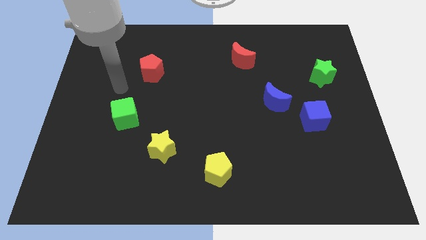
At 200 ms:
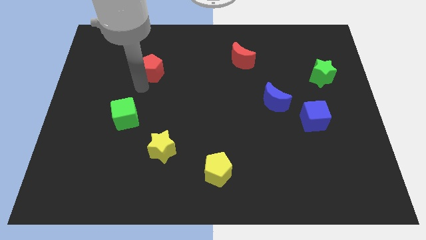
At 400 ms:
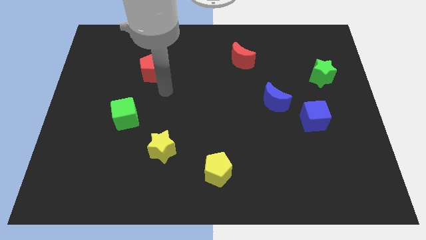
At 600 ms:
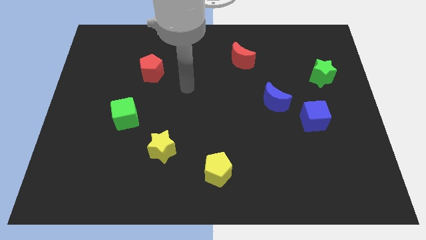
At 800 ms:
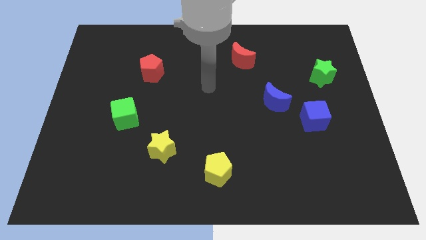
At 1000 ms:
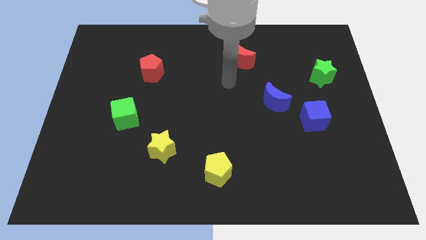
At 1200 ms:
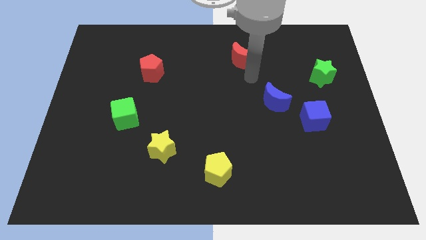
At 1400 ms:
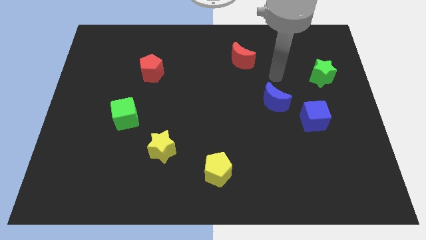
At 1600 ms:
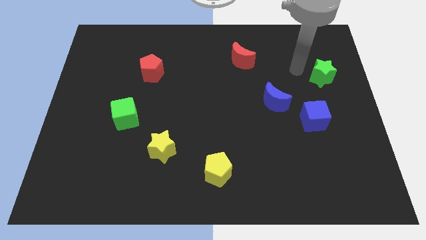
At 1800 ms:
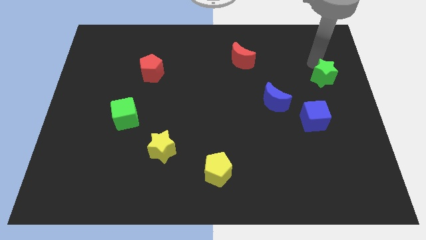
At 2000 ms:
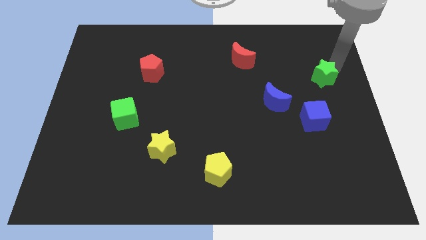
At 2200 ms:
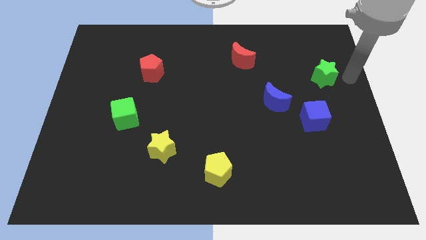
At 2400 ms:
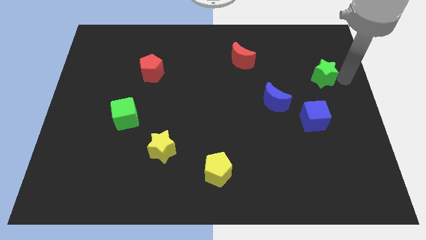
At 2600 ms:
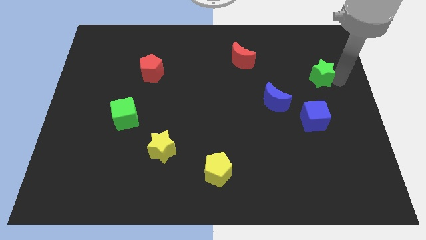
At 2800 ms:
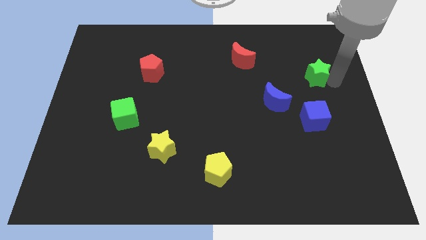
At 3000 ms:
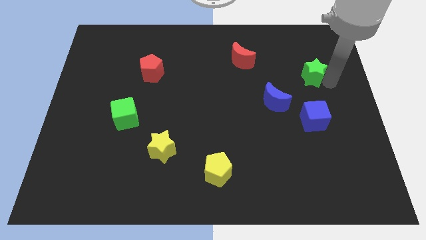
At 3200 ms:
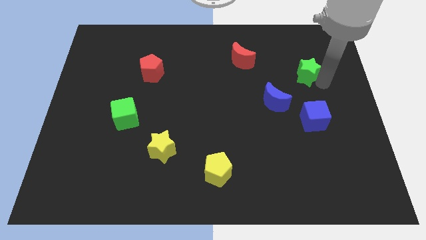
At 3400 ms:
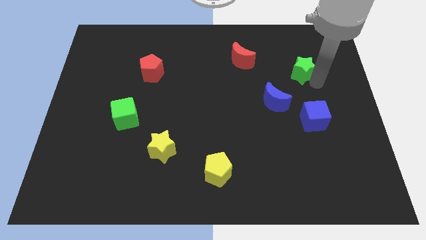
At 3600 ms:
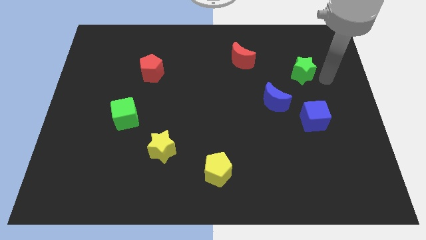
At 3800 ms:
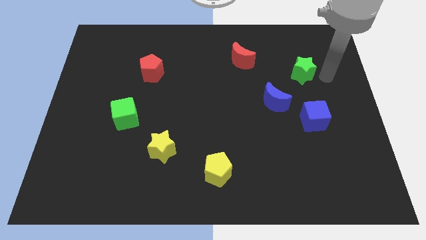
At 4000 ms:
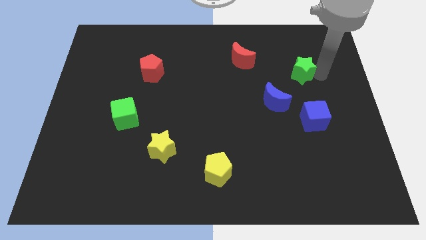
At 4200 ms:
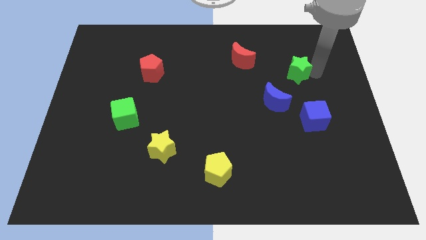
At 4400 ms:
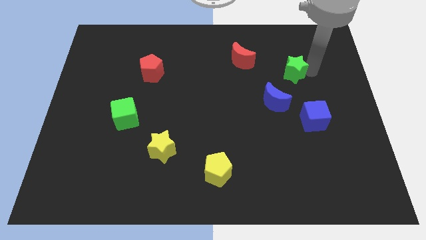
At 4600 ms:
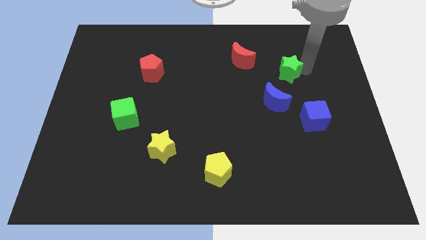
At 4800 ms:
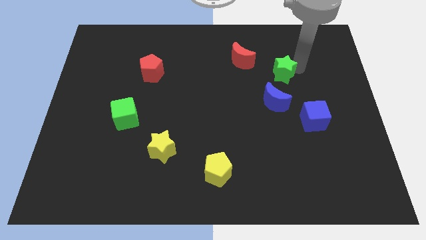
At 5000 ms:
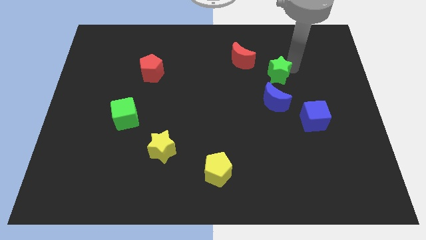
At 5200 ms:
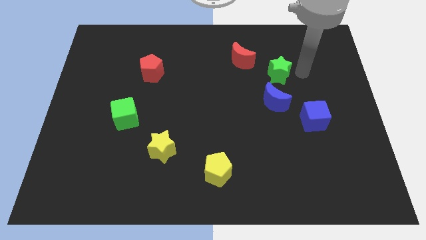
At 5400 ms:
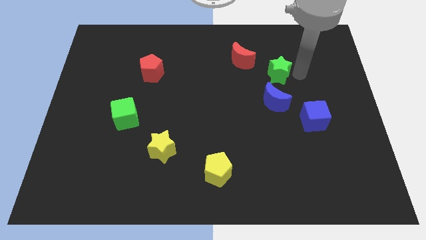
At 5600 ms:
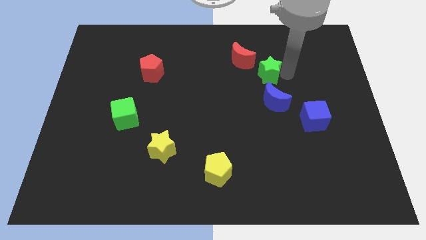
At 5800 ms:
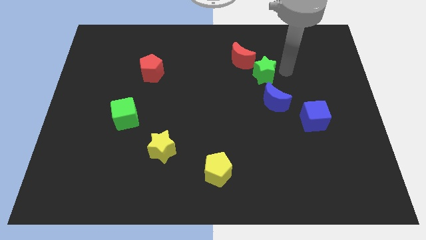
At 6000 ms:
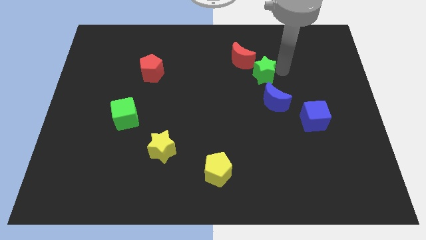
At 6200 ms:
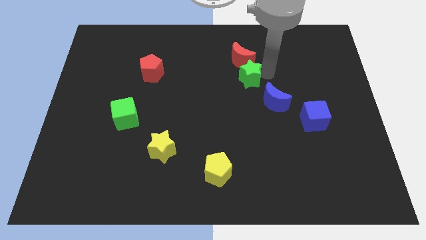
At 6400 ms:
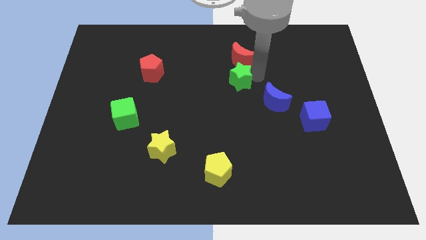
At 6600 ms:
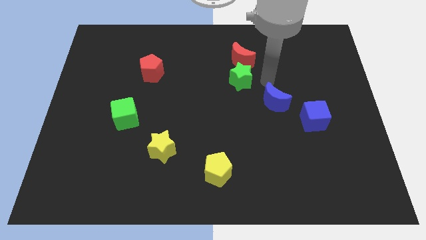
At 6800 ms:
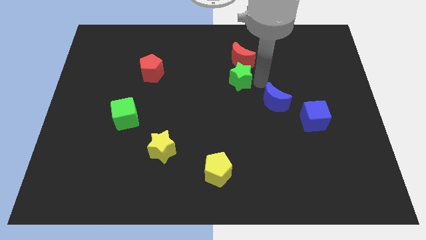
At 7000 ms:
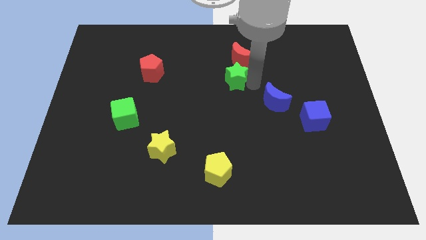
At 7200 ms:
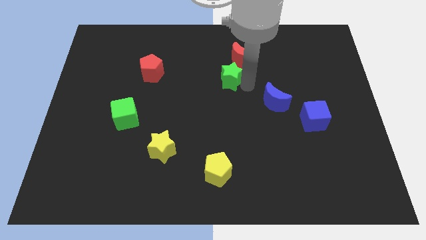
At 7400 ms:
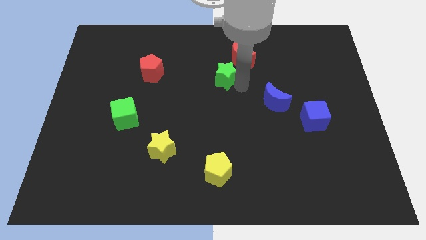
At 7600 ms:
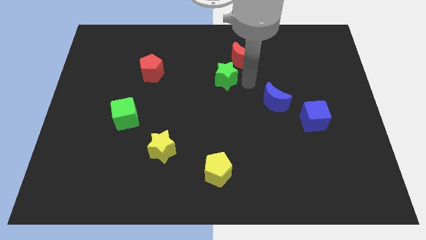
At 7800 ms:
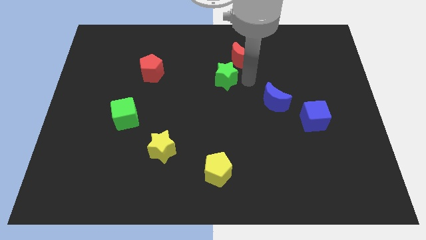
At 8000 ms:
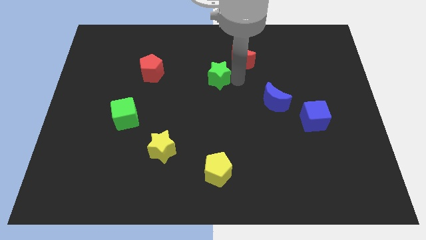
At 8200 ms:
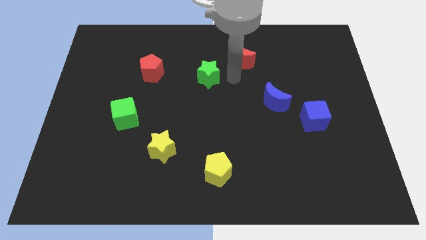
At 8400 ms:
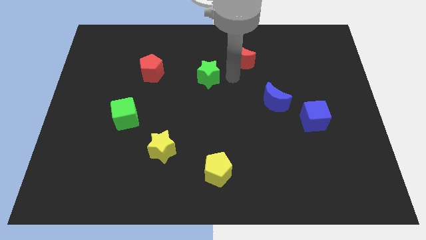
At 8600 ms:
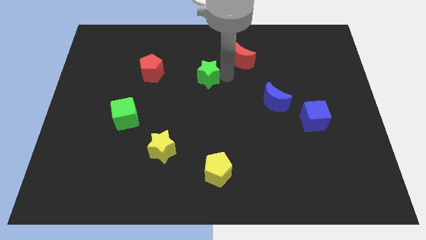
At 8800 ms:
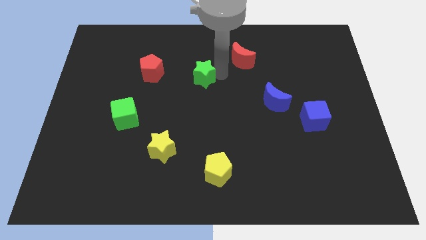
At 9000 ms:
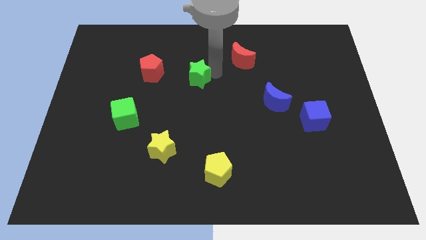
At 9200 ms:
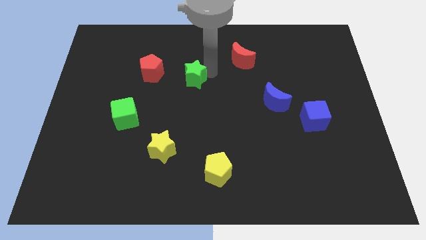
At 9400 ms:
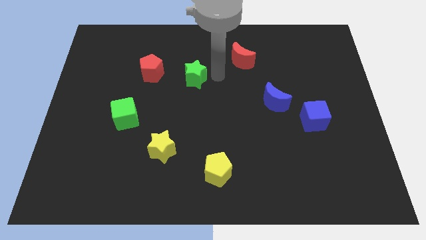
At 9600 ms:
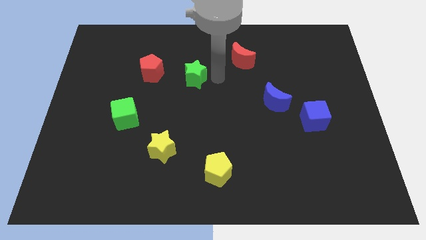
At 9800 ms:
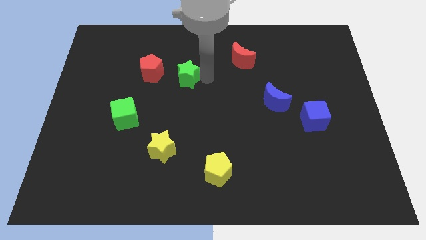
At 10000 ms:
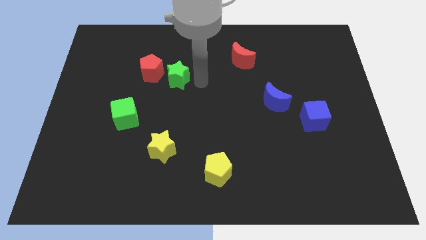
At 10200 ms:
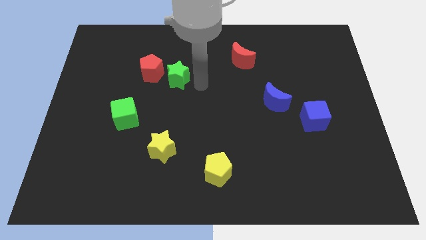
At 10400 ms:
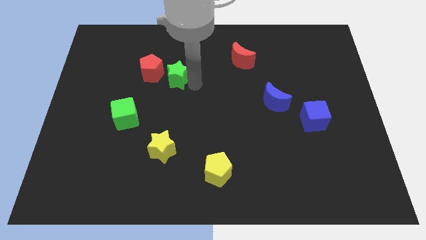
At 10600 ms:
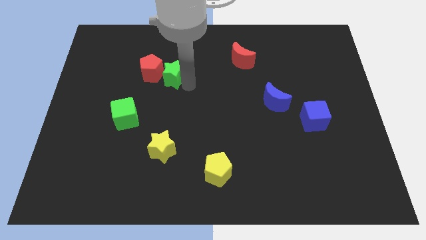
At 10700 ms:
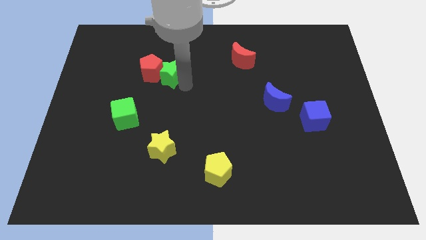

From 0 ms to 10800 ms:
move the green star next to the red pentagon

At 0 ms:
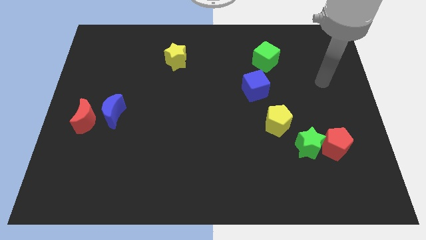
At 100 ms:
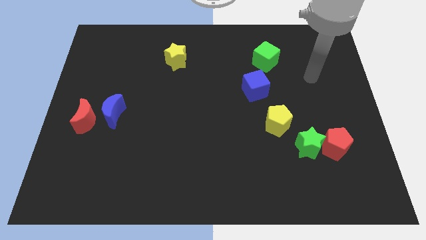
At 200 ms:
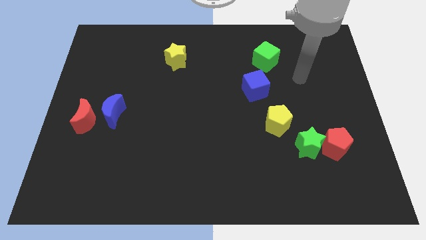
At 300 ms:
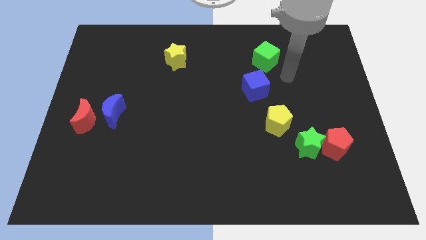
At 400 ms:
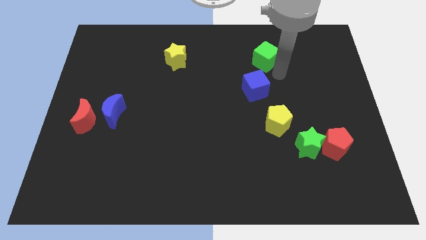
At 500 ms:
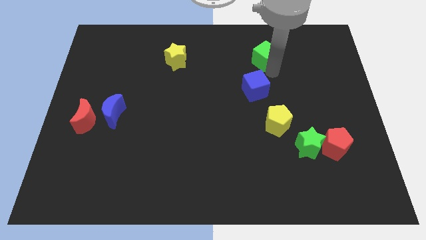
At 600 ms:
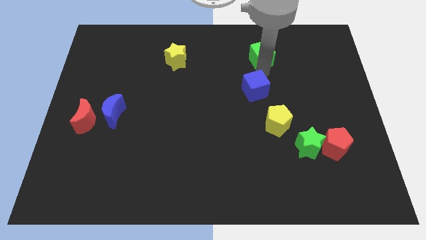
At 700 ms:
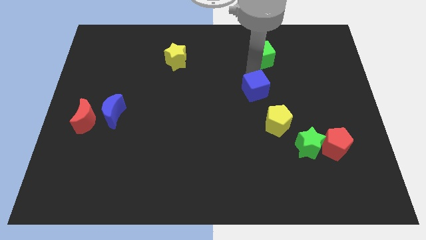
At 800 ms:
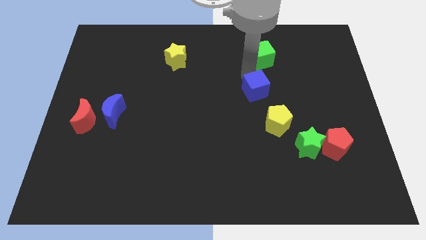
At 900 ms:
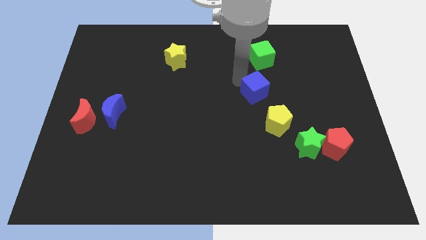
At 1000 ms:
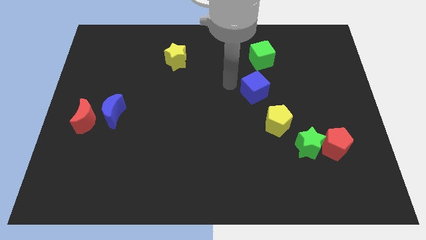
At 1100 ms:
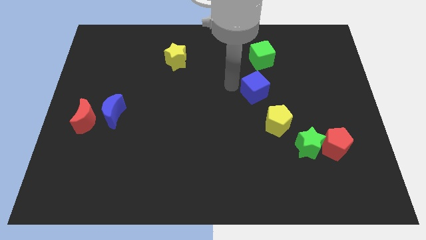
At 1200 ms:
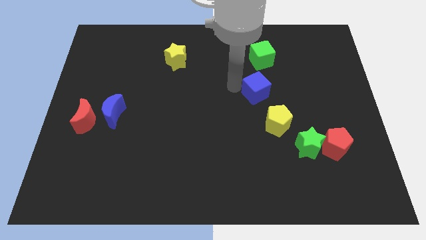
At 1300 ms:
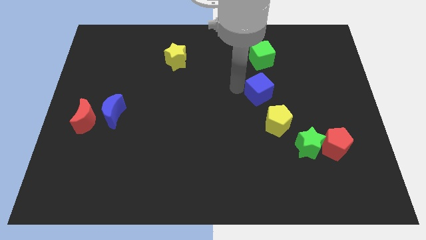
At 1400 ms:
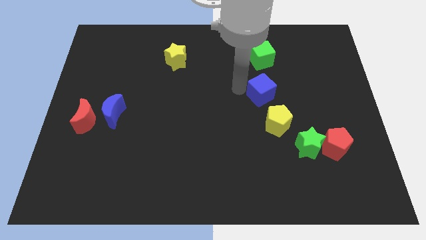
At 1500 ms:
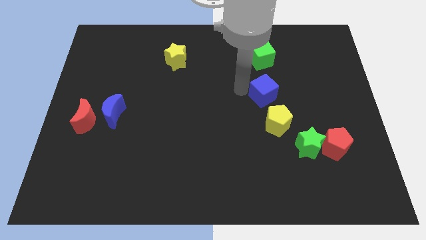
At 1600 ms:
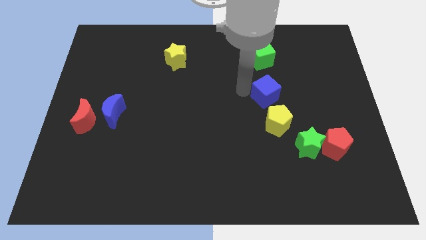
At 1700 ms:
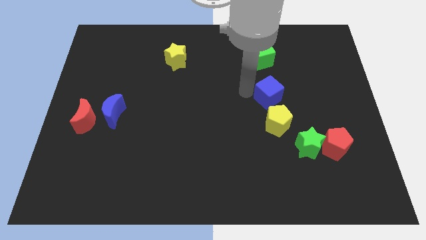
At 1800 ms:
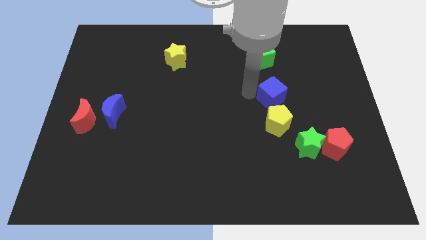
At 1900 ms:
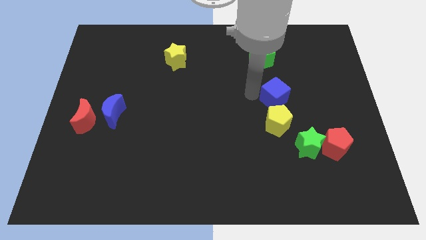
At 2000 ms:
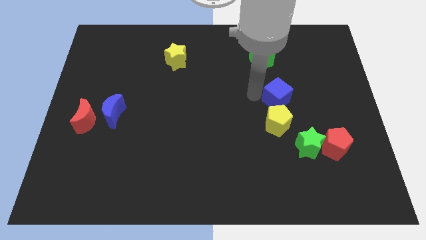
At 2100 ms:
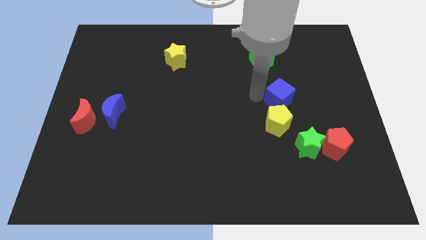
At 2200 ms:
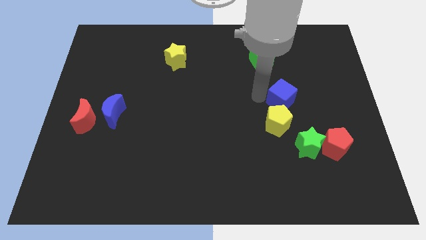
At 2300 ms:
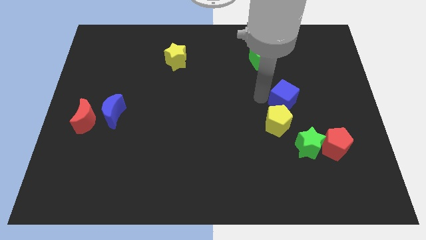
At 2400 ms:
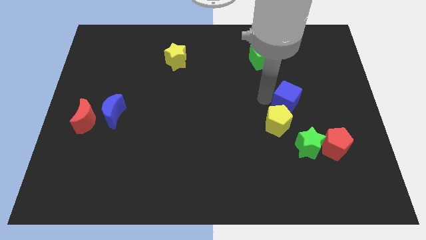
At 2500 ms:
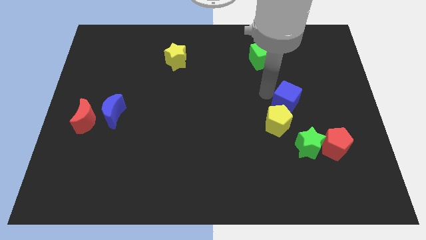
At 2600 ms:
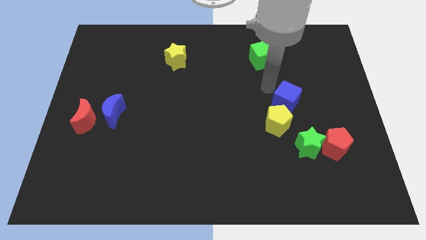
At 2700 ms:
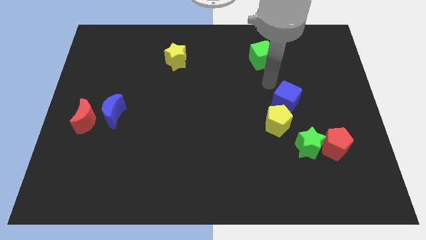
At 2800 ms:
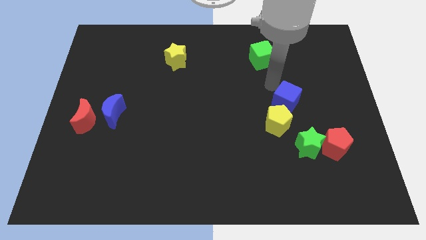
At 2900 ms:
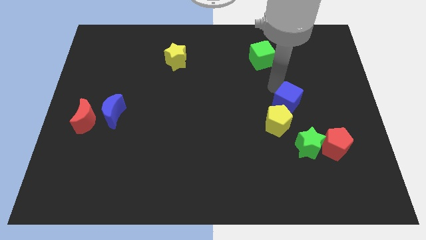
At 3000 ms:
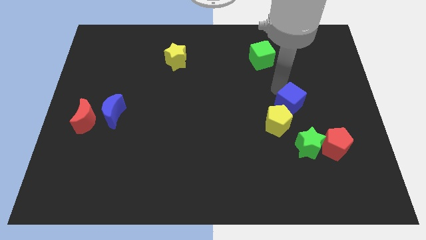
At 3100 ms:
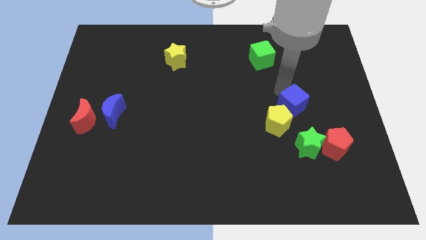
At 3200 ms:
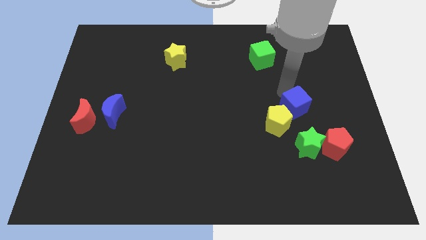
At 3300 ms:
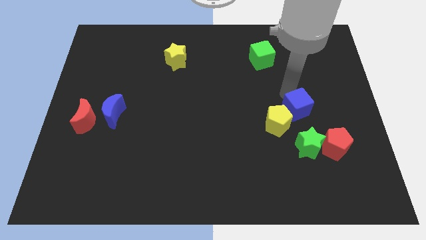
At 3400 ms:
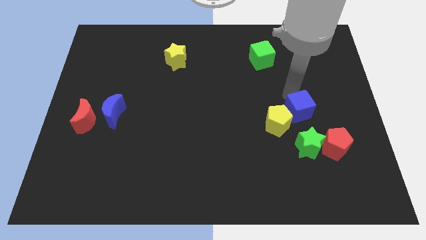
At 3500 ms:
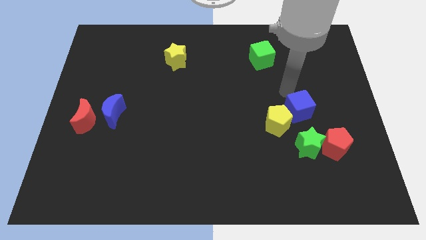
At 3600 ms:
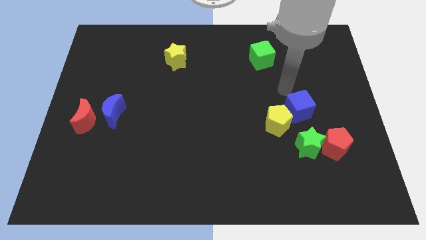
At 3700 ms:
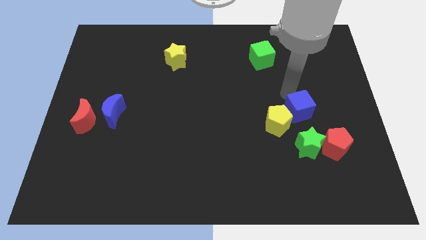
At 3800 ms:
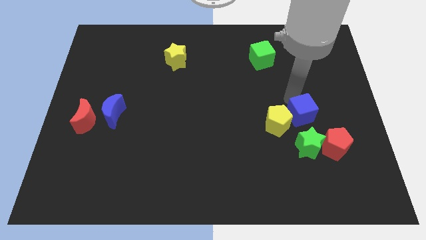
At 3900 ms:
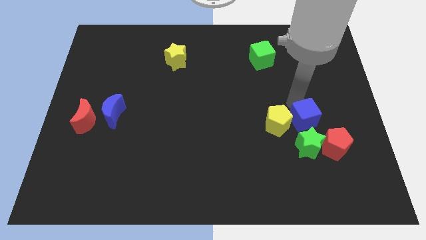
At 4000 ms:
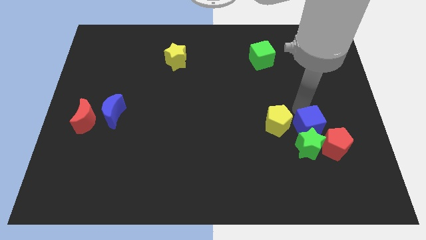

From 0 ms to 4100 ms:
push the blue cube next to the green star
